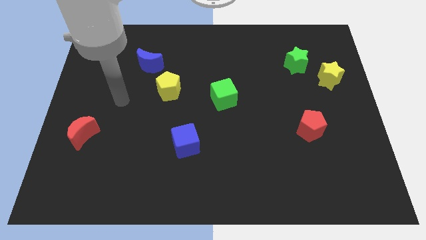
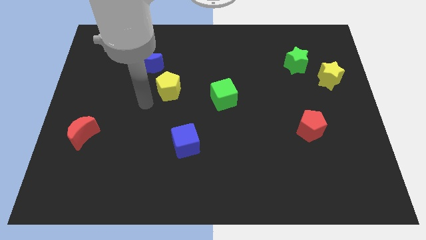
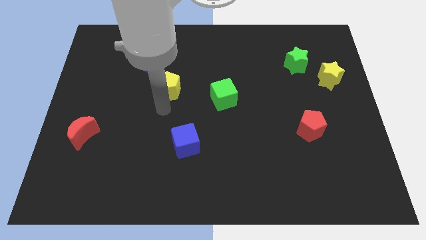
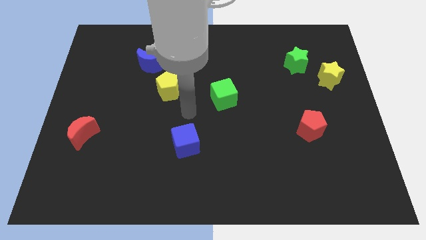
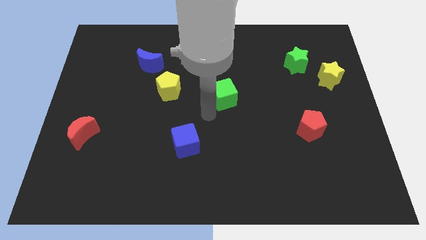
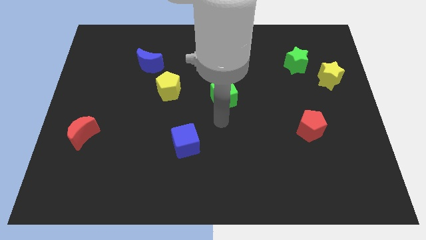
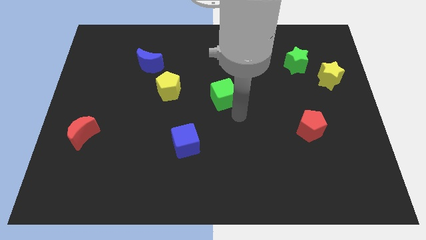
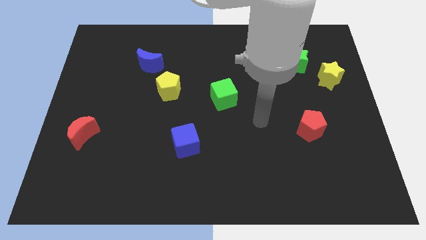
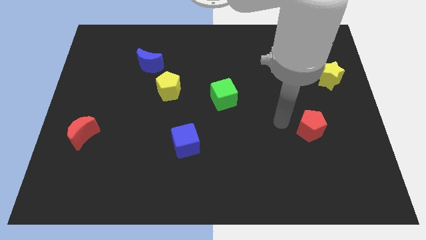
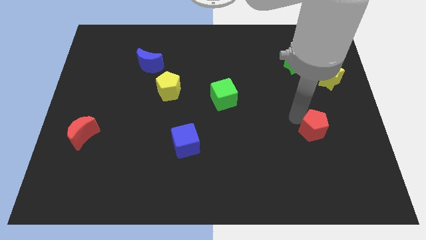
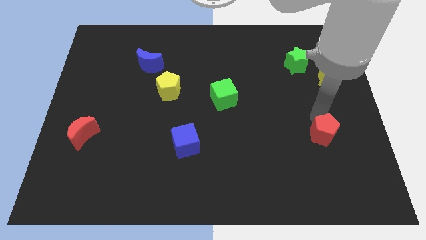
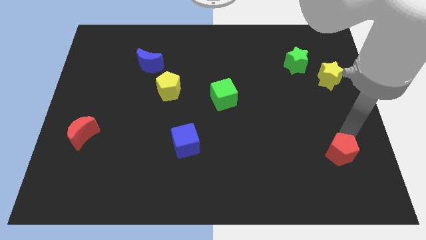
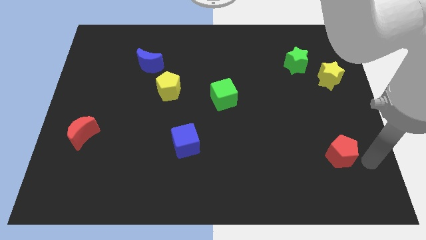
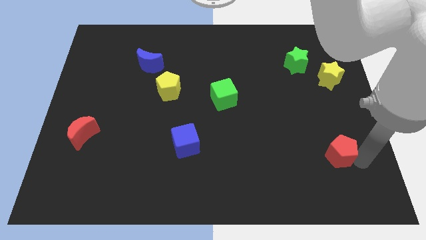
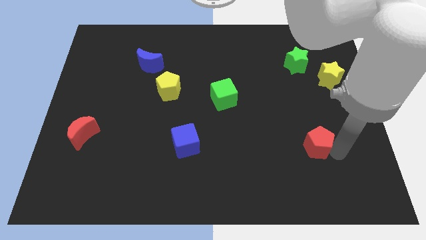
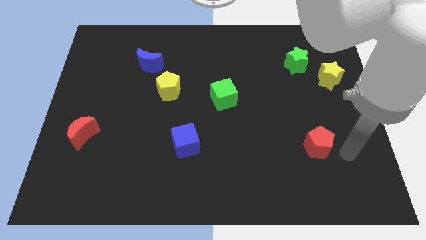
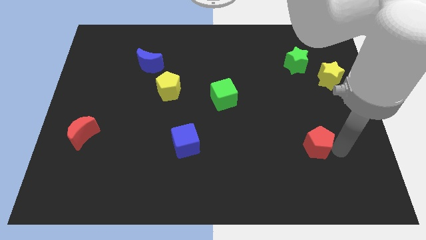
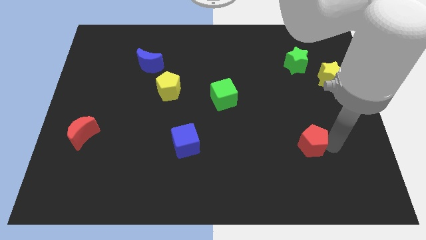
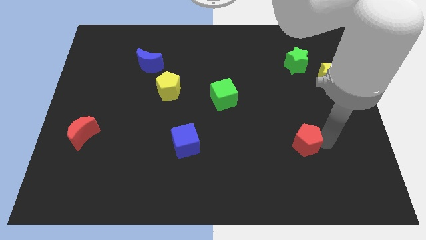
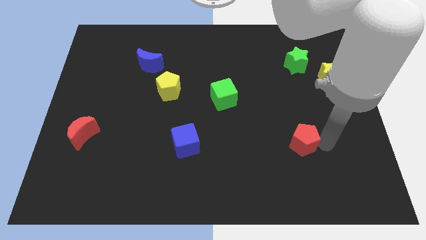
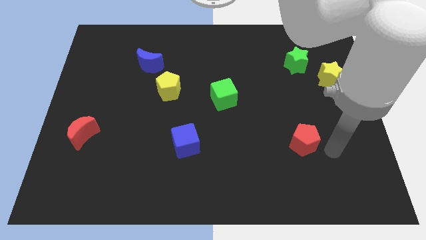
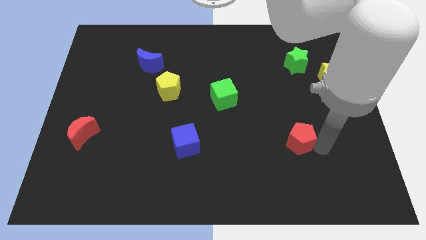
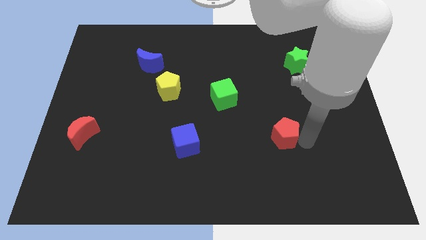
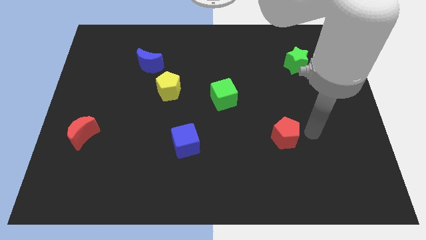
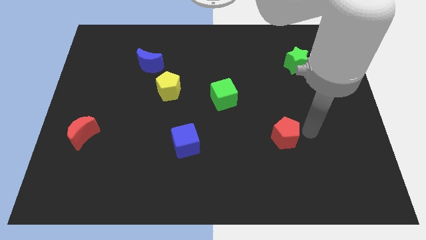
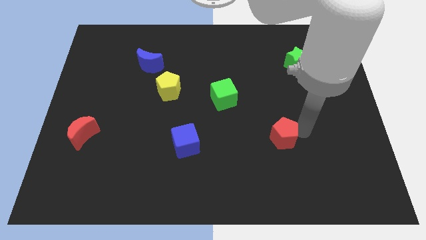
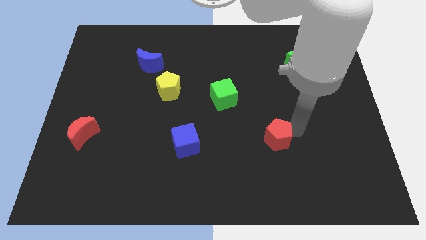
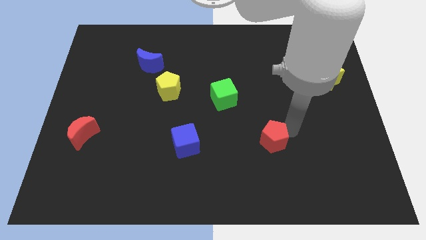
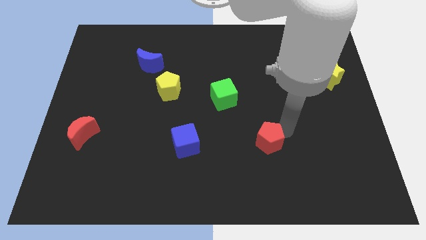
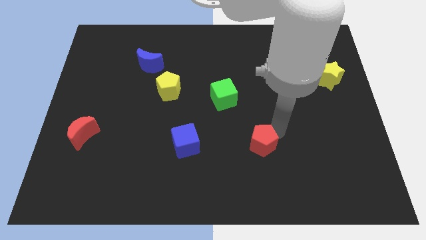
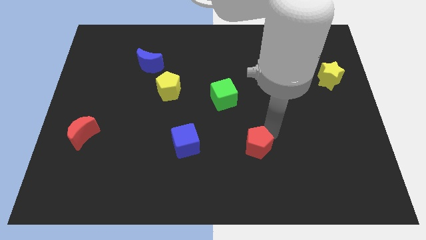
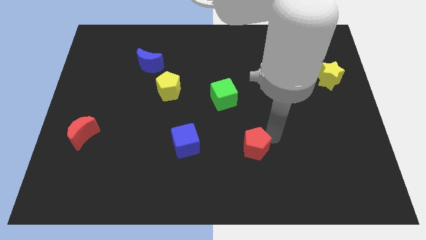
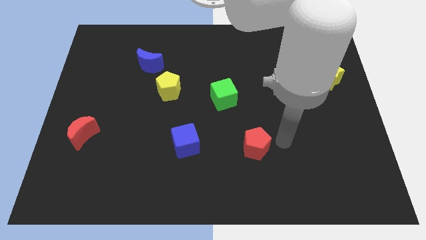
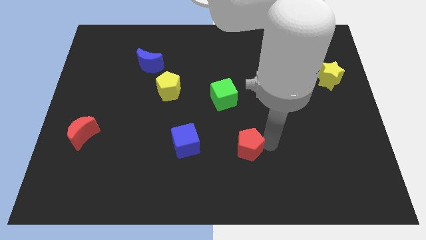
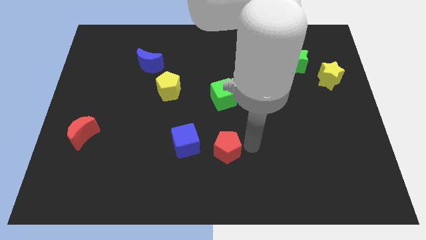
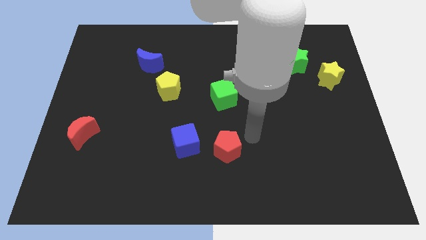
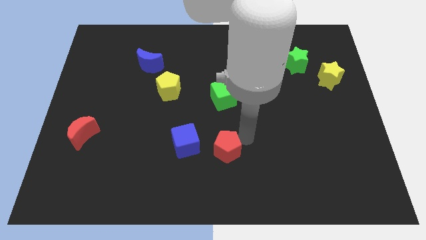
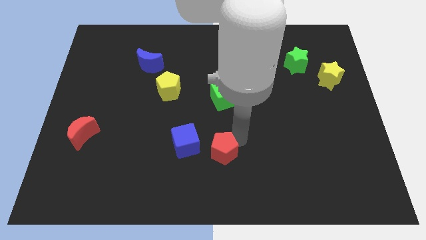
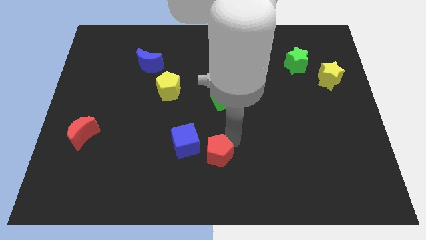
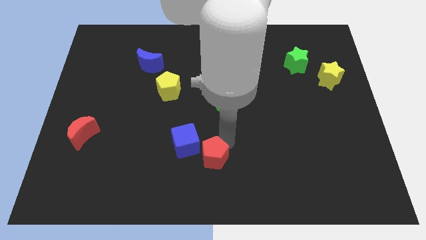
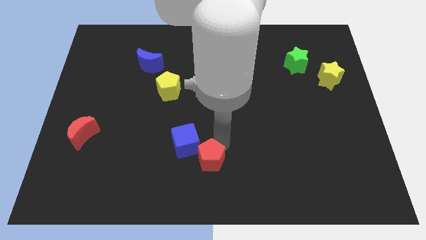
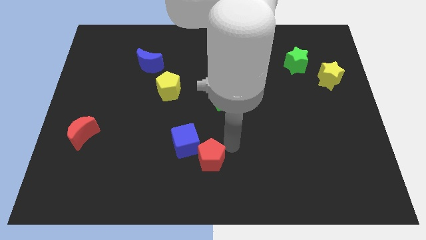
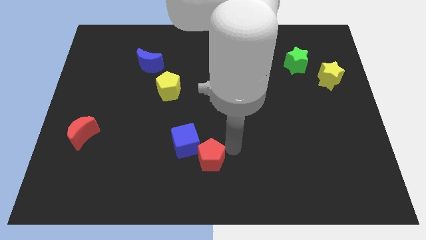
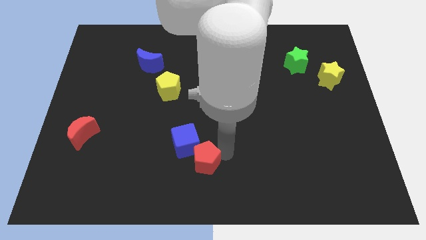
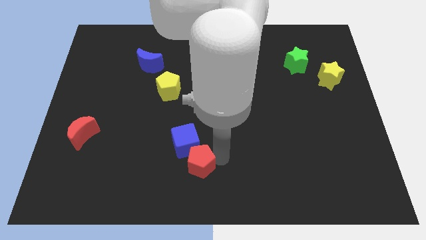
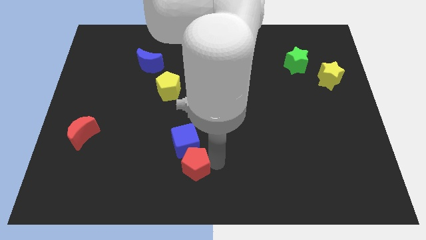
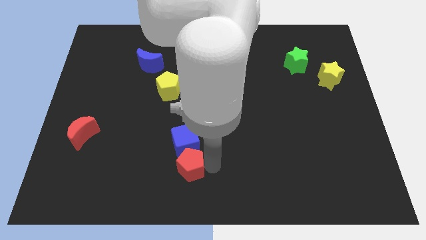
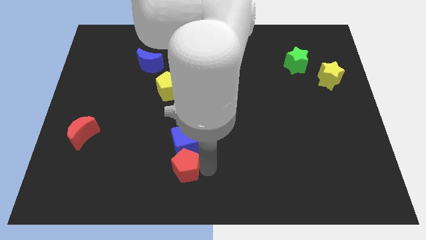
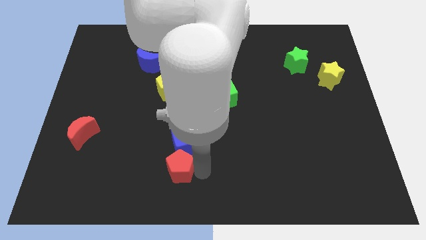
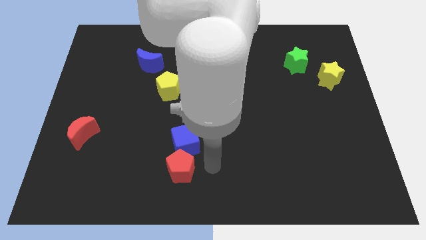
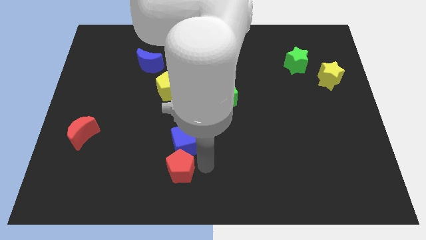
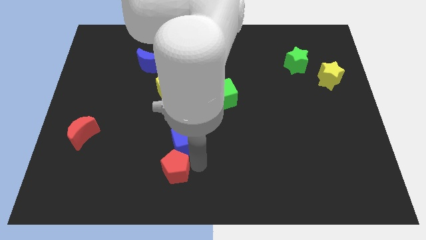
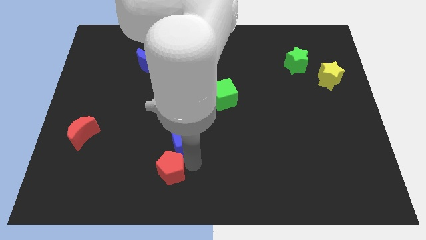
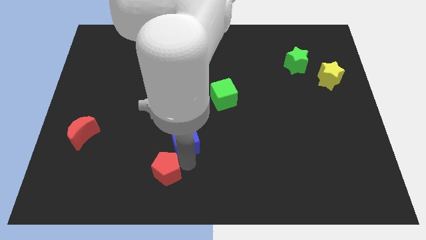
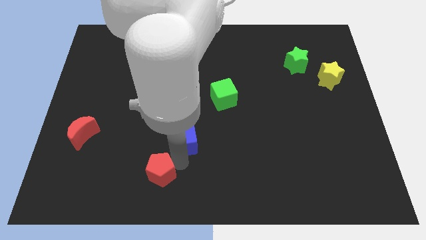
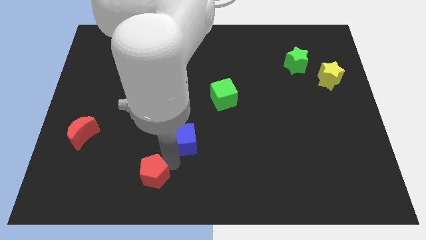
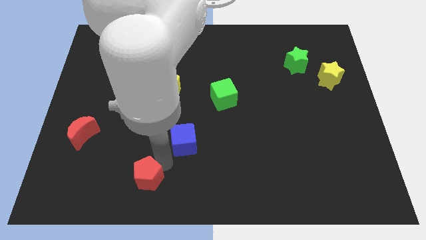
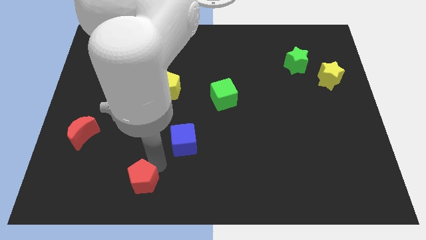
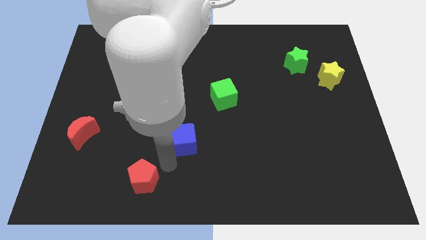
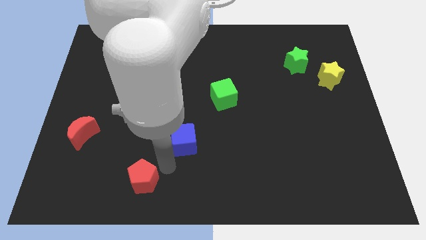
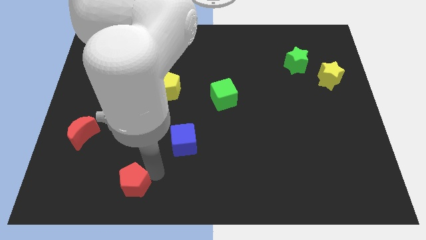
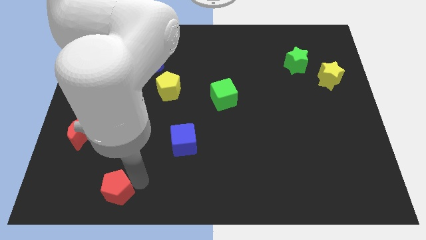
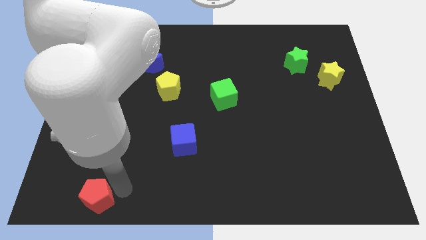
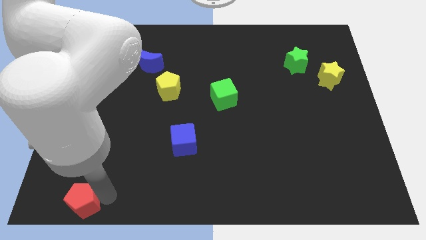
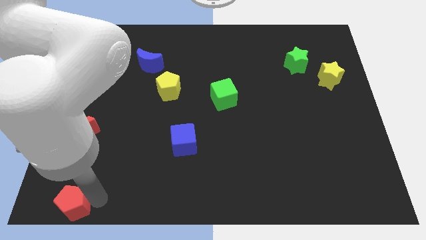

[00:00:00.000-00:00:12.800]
push the red pentagon to the lower left corner

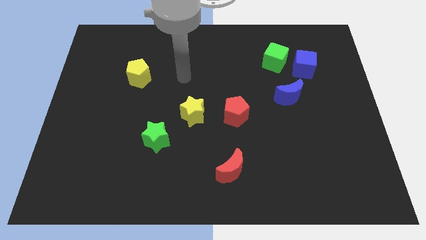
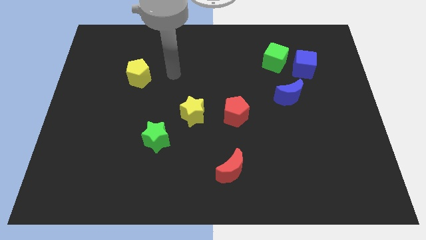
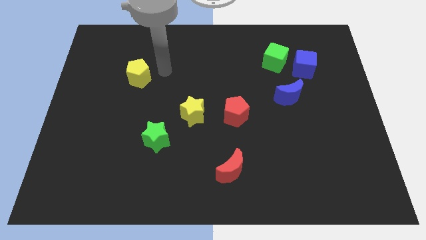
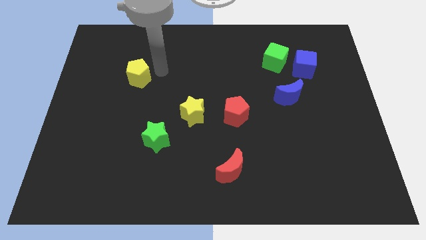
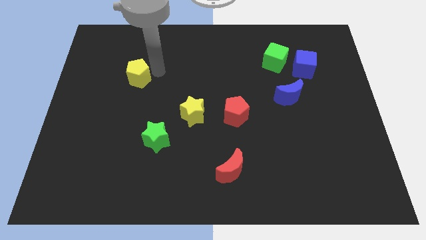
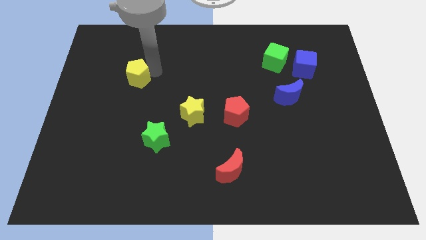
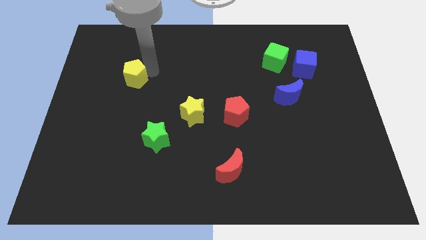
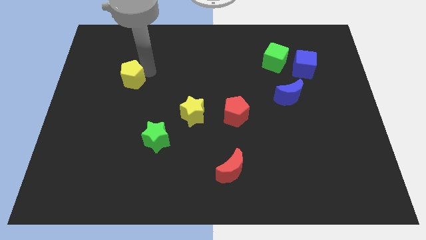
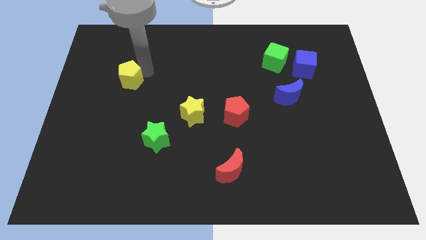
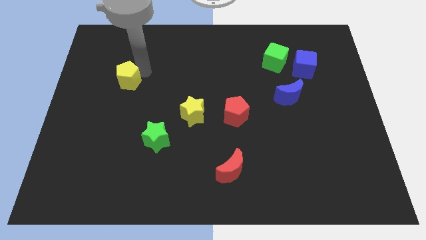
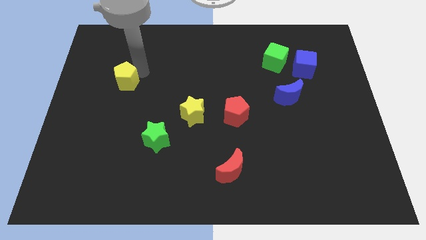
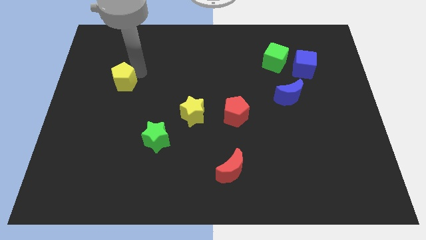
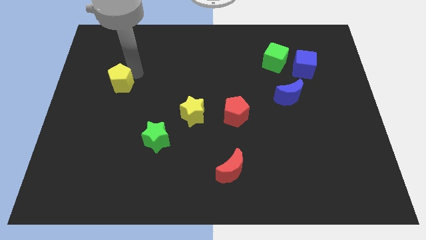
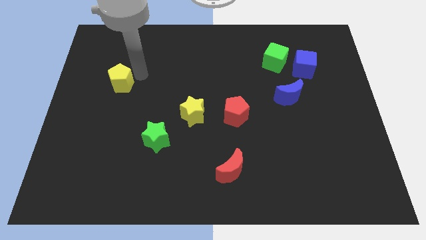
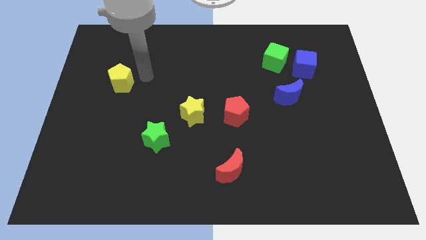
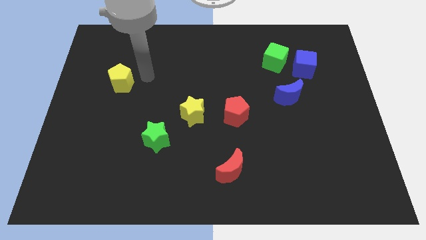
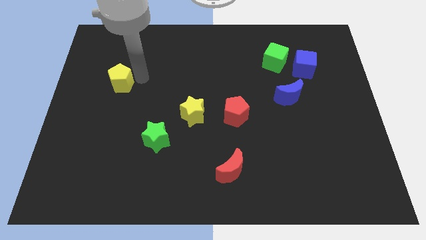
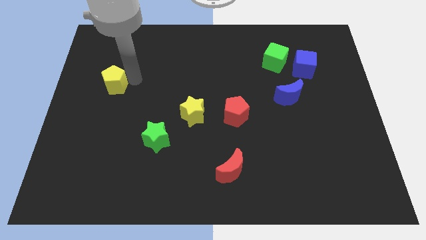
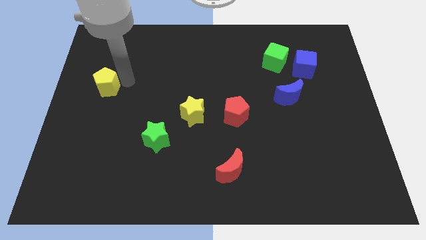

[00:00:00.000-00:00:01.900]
move the yellow pentagon to the left side
